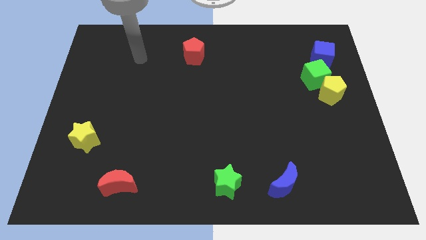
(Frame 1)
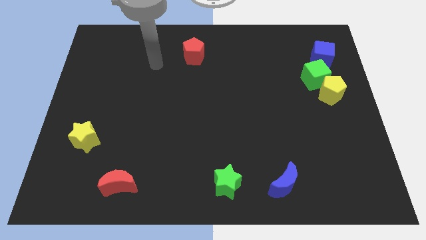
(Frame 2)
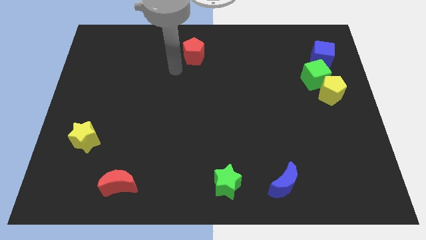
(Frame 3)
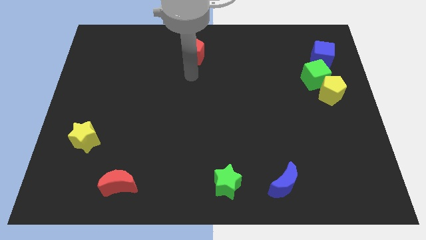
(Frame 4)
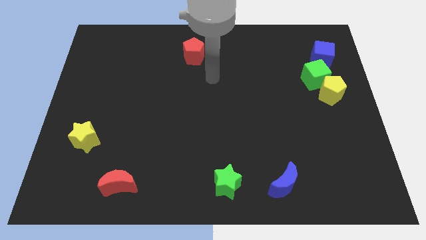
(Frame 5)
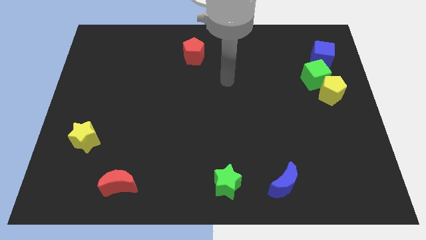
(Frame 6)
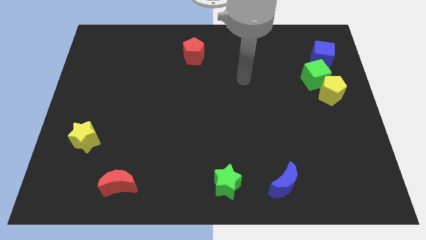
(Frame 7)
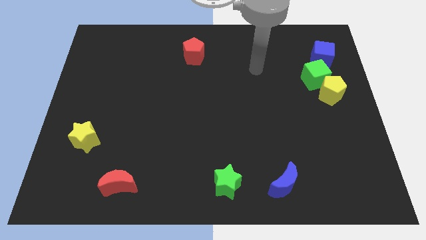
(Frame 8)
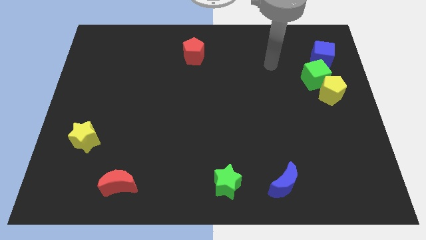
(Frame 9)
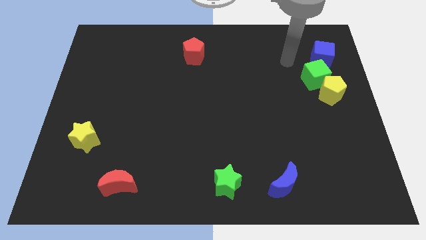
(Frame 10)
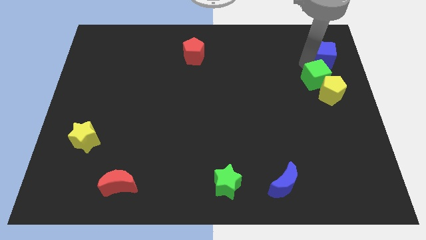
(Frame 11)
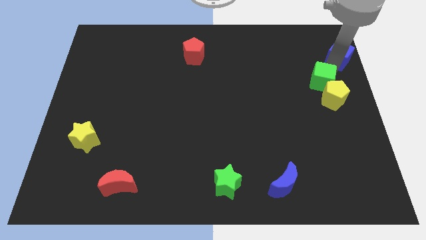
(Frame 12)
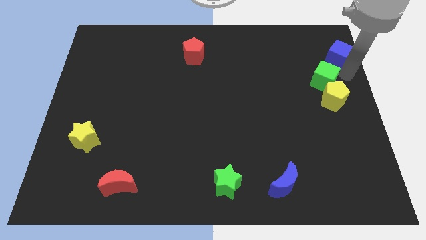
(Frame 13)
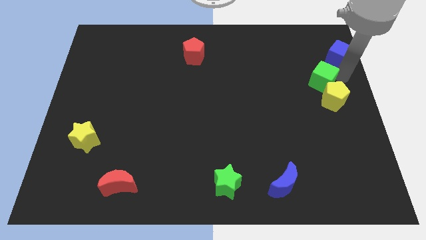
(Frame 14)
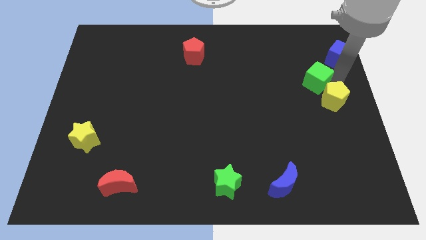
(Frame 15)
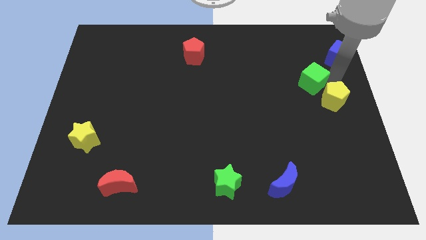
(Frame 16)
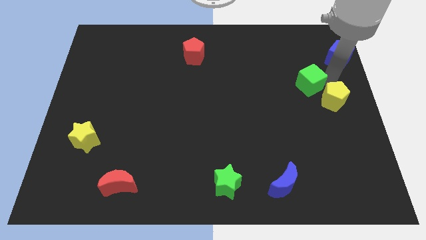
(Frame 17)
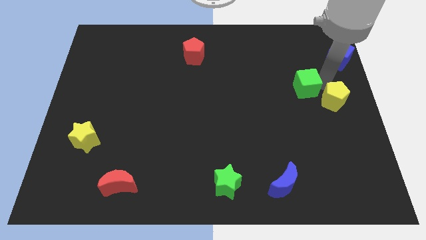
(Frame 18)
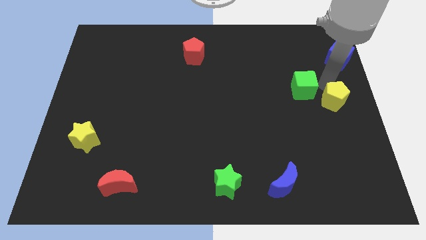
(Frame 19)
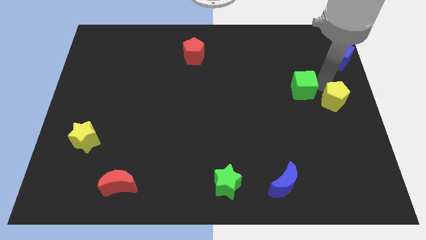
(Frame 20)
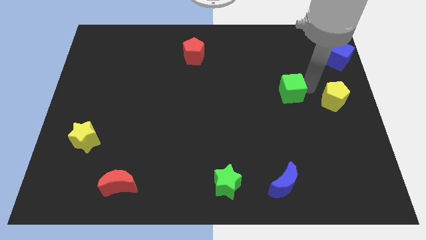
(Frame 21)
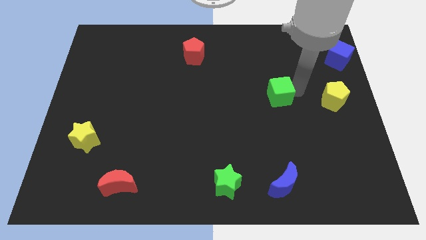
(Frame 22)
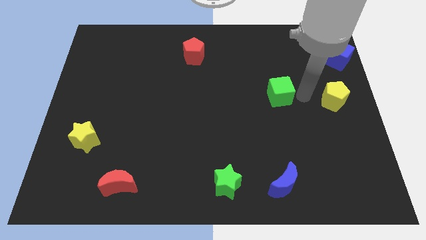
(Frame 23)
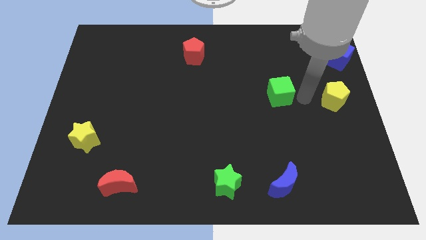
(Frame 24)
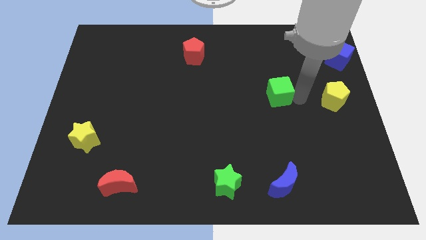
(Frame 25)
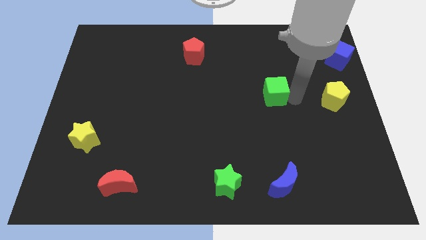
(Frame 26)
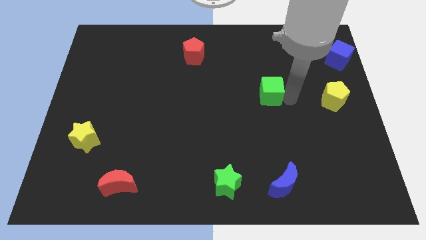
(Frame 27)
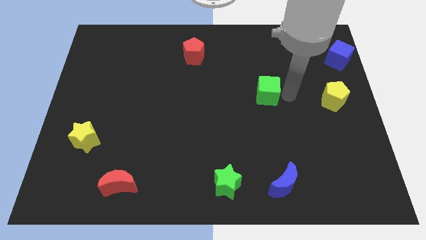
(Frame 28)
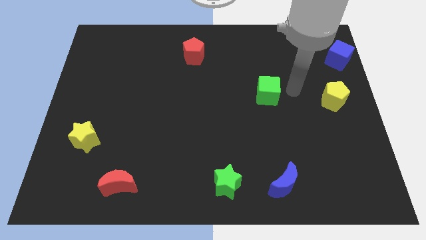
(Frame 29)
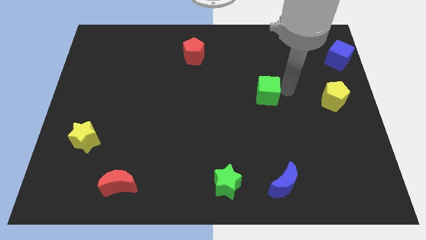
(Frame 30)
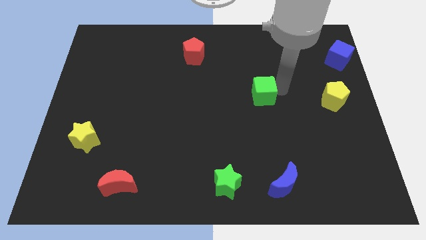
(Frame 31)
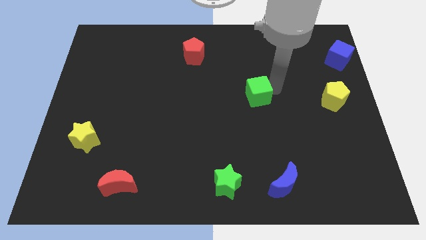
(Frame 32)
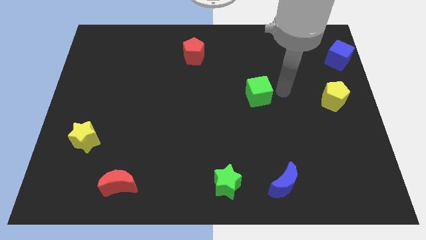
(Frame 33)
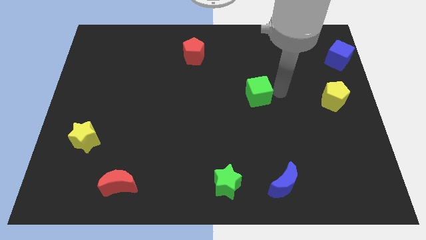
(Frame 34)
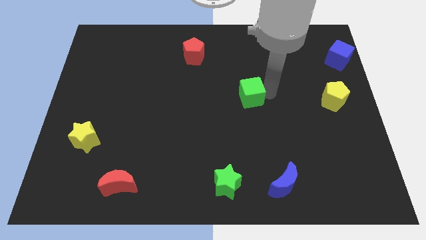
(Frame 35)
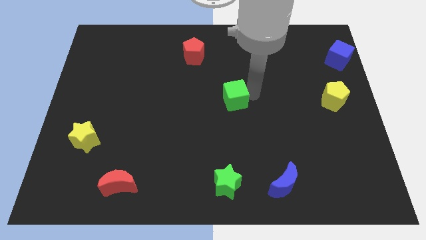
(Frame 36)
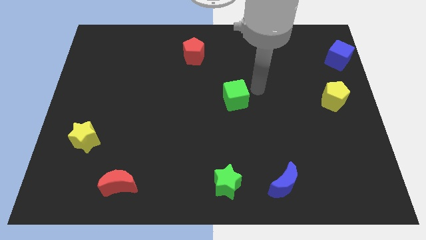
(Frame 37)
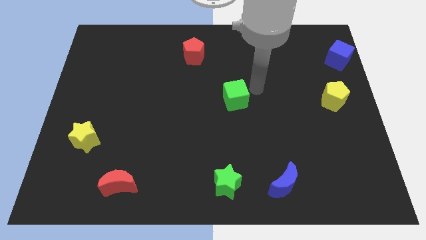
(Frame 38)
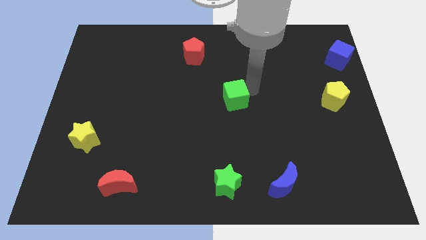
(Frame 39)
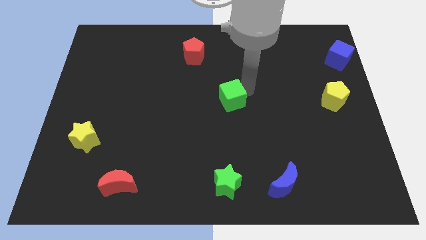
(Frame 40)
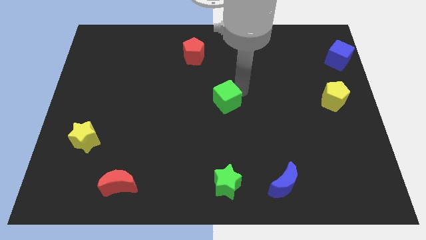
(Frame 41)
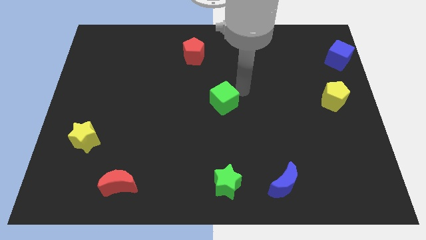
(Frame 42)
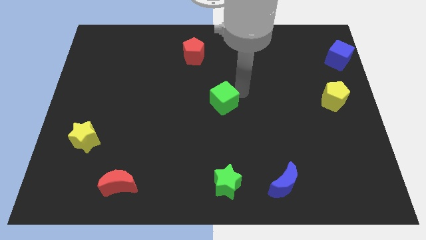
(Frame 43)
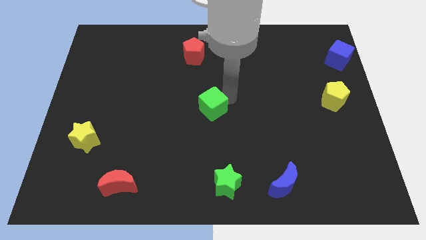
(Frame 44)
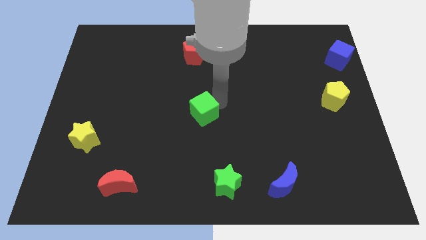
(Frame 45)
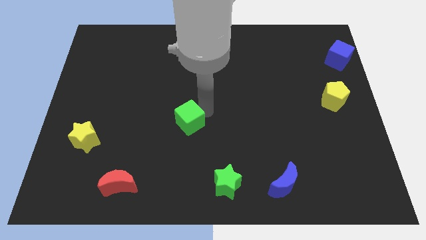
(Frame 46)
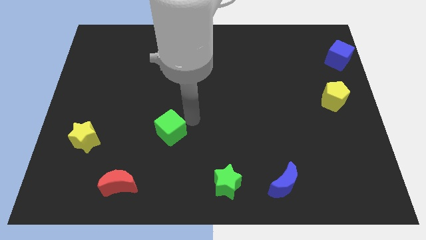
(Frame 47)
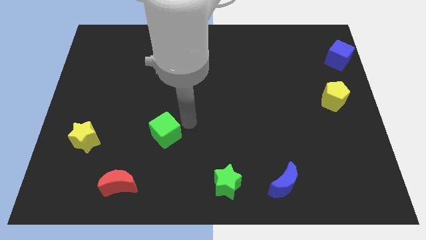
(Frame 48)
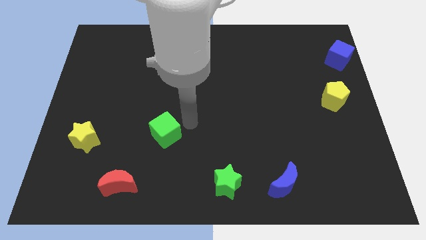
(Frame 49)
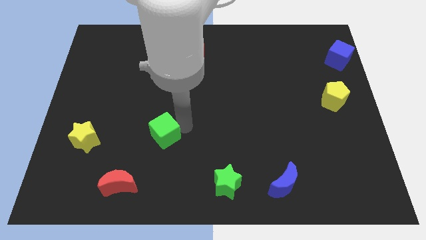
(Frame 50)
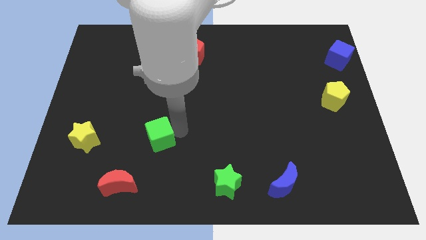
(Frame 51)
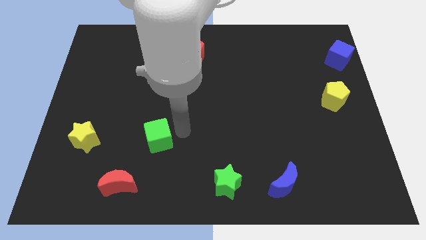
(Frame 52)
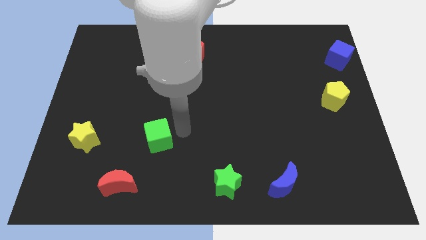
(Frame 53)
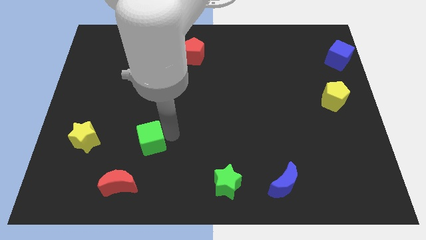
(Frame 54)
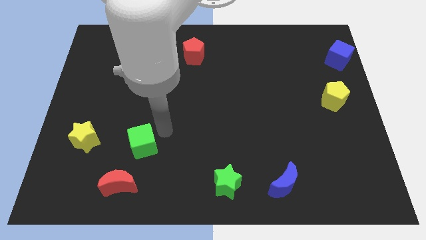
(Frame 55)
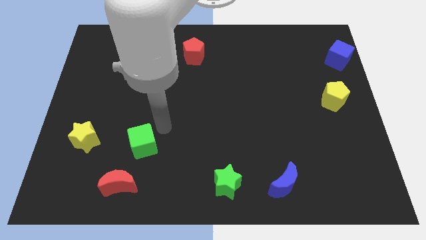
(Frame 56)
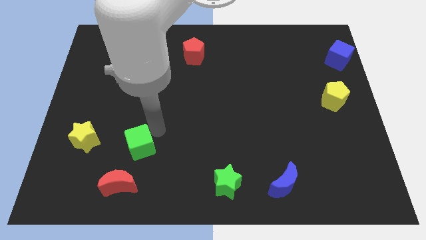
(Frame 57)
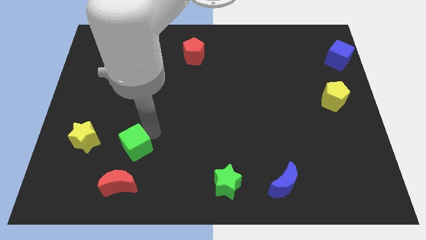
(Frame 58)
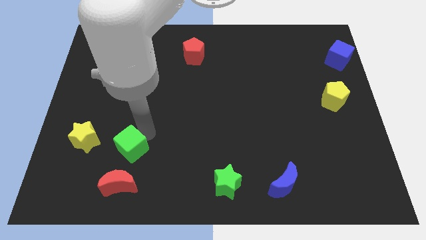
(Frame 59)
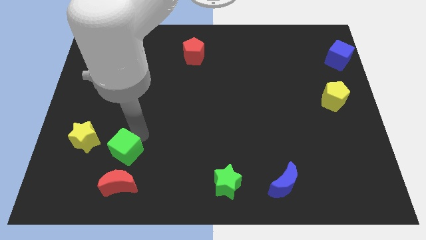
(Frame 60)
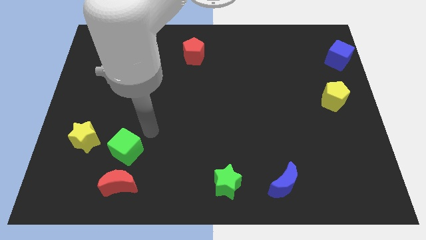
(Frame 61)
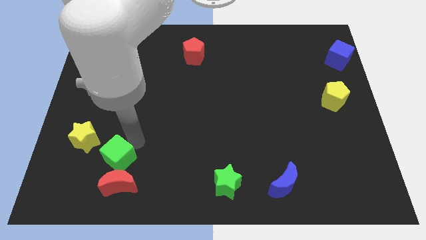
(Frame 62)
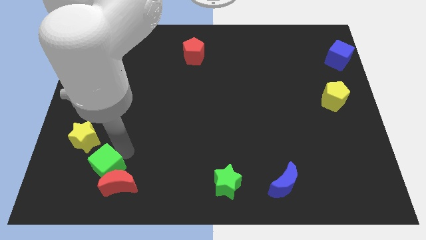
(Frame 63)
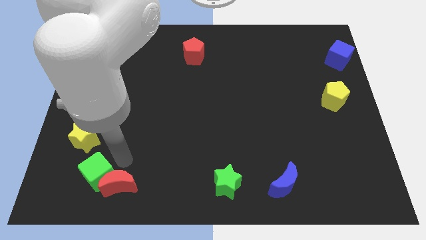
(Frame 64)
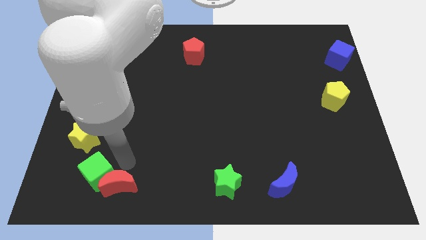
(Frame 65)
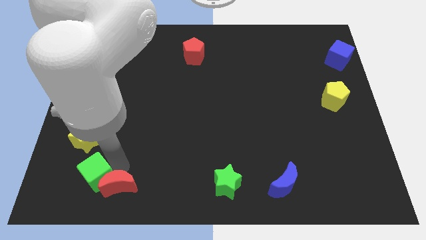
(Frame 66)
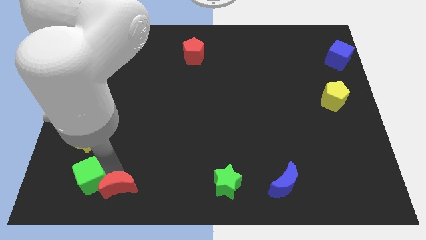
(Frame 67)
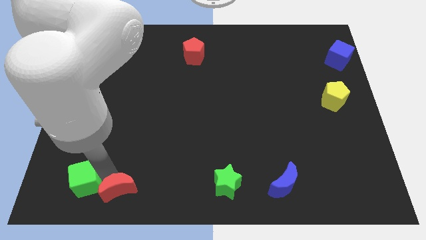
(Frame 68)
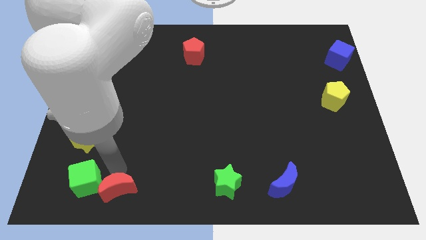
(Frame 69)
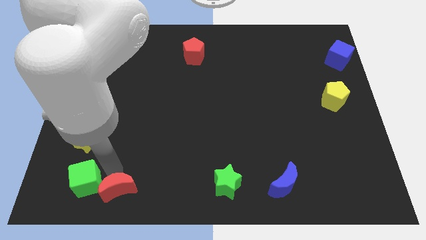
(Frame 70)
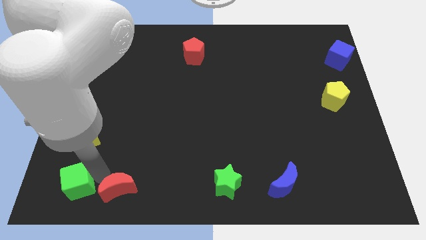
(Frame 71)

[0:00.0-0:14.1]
slide the green cube to the bottom left corner
